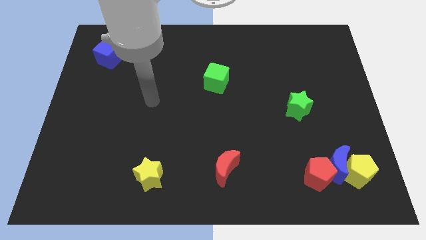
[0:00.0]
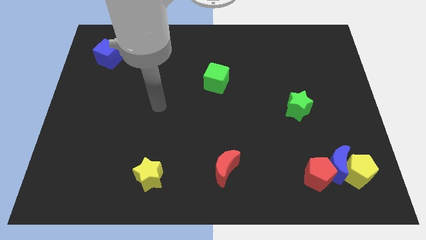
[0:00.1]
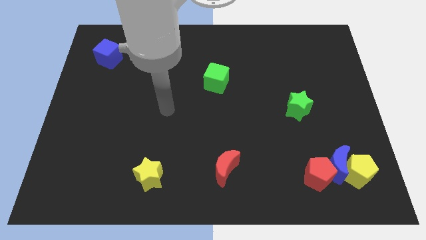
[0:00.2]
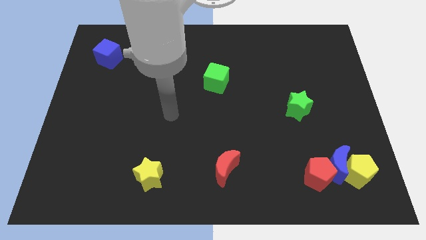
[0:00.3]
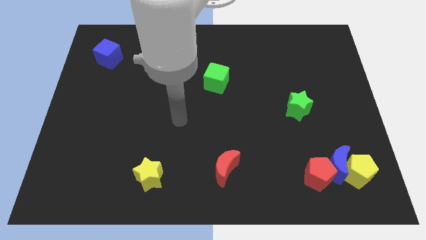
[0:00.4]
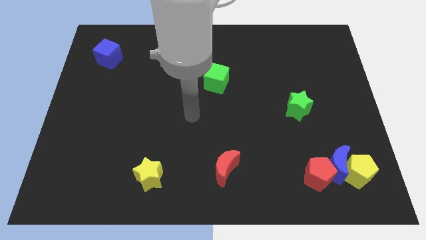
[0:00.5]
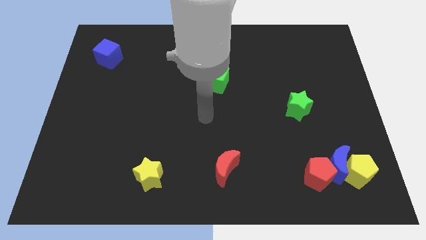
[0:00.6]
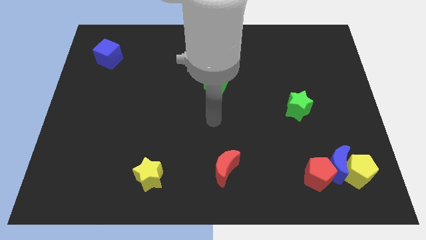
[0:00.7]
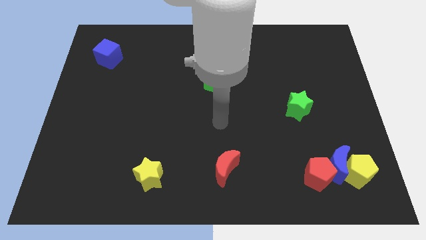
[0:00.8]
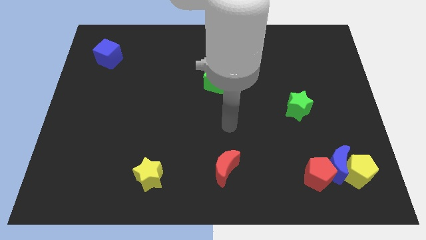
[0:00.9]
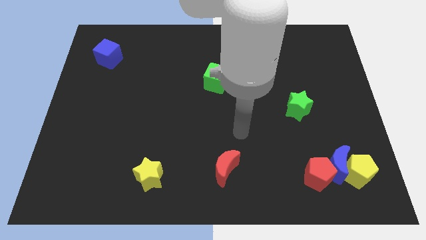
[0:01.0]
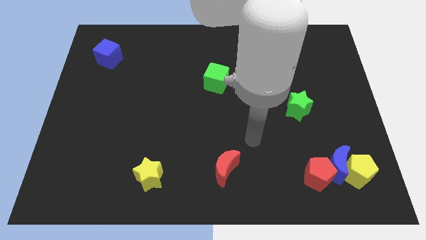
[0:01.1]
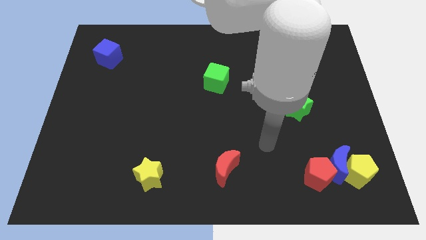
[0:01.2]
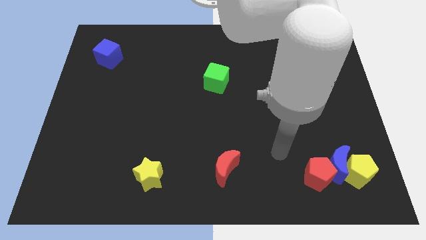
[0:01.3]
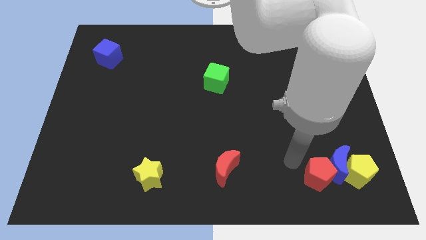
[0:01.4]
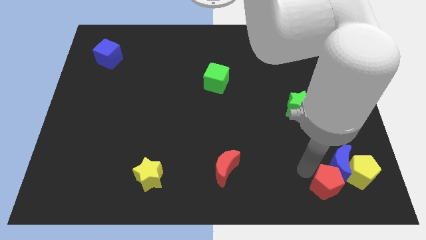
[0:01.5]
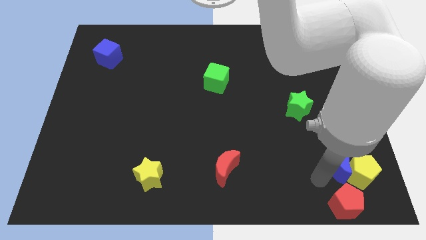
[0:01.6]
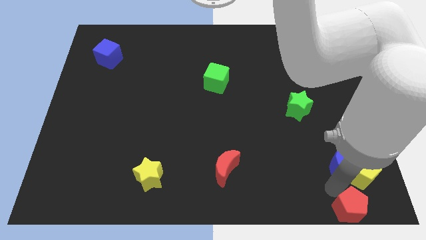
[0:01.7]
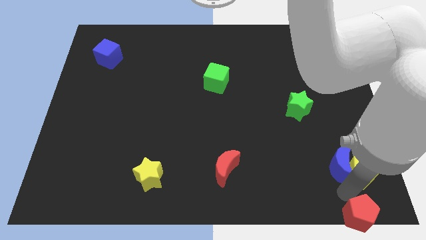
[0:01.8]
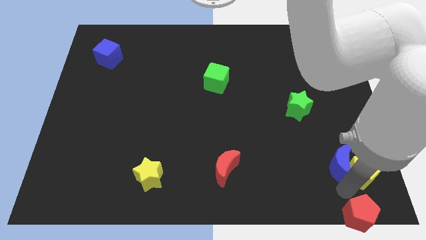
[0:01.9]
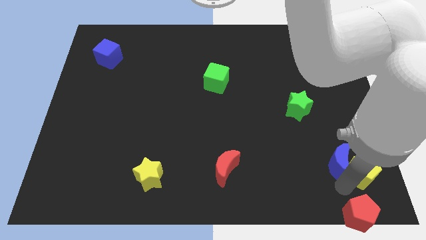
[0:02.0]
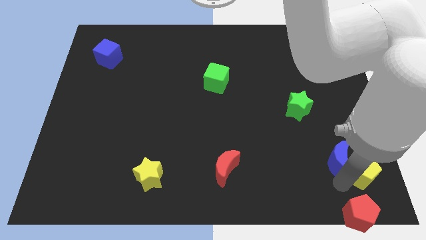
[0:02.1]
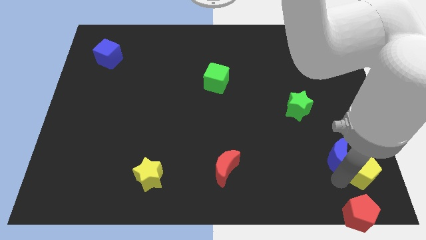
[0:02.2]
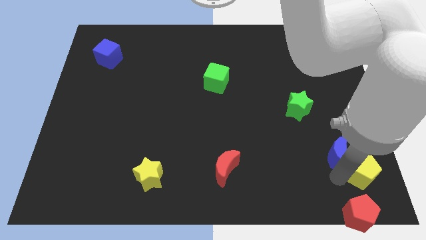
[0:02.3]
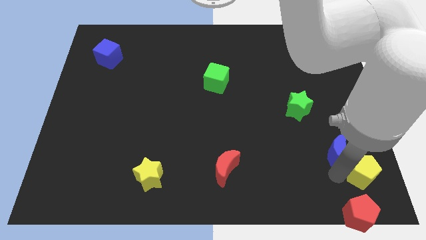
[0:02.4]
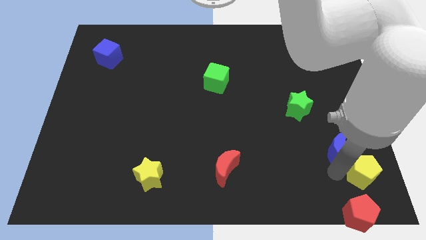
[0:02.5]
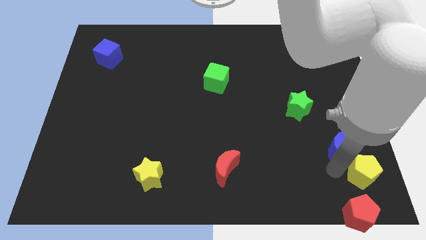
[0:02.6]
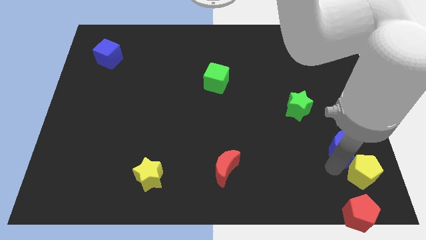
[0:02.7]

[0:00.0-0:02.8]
move the blue moon away from the yellow pentagon and red pentagon

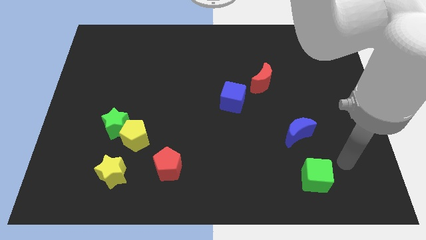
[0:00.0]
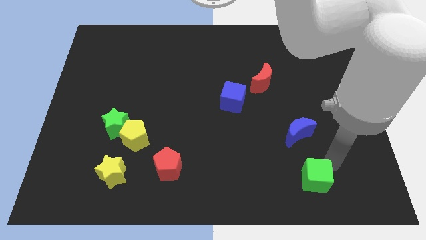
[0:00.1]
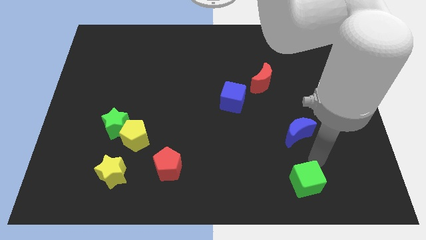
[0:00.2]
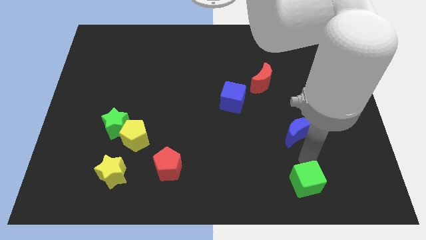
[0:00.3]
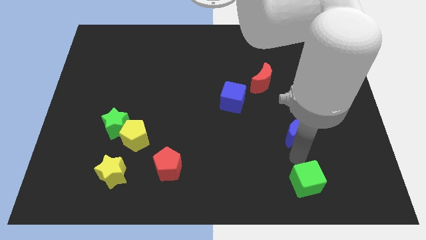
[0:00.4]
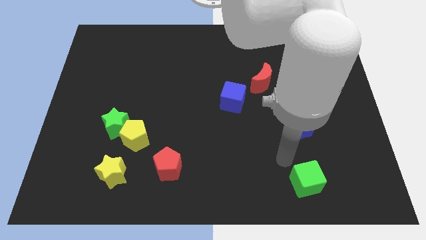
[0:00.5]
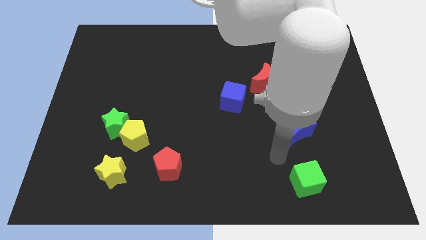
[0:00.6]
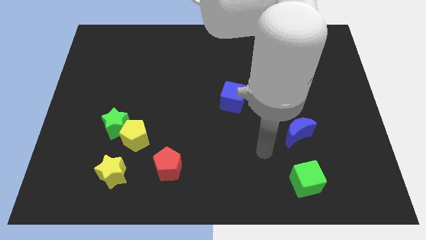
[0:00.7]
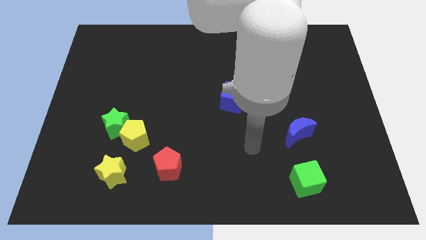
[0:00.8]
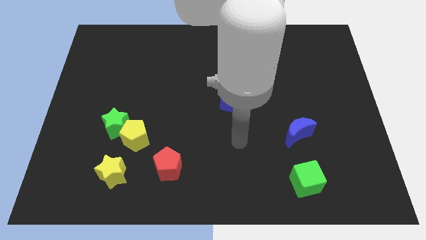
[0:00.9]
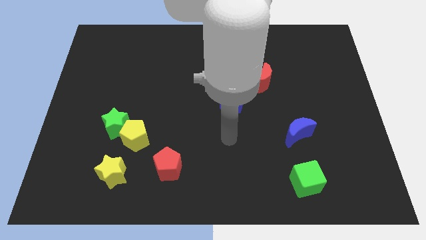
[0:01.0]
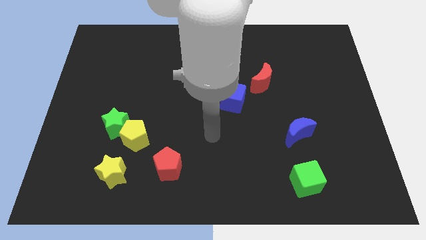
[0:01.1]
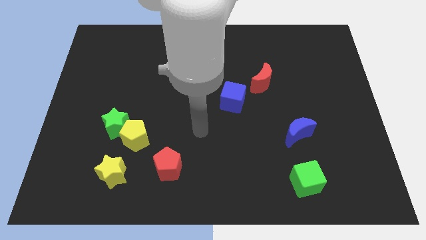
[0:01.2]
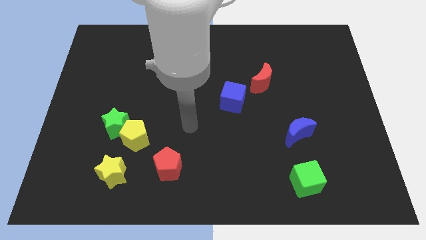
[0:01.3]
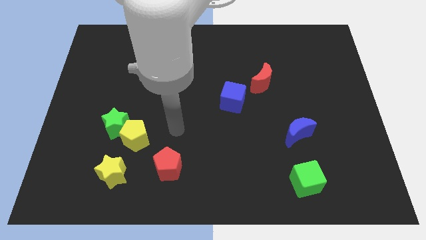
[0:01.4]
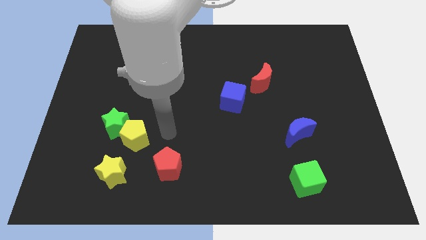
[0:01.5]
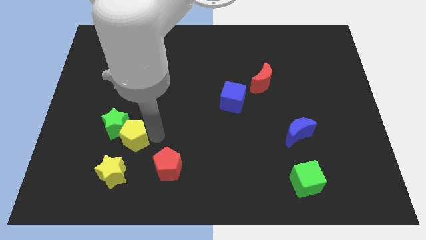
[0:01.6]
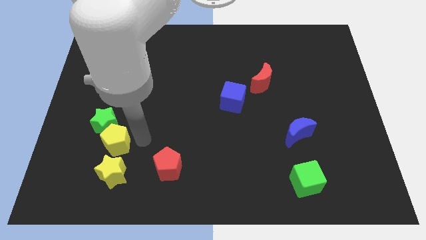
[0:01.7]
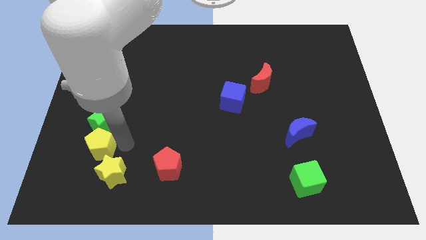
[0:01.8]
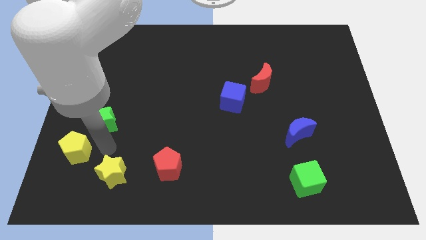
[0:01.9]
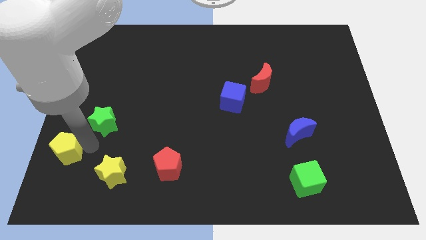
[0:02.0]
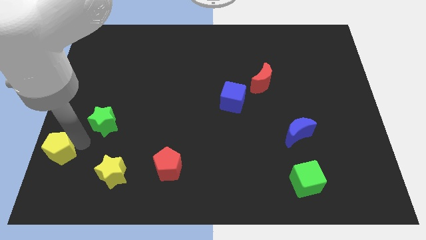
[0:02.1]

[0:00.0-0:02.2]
pull the green star apart from the yellow pentagon

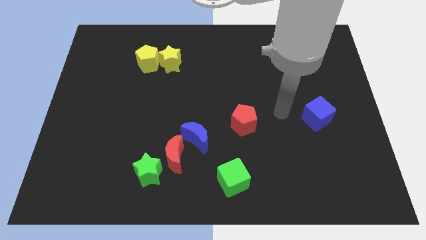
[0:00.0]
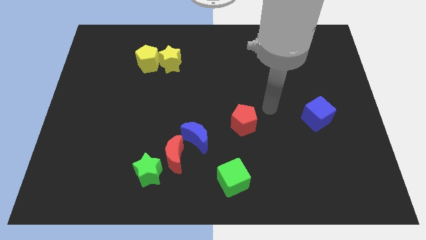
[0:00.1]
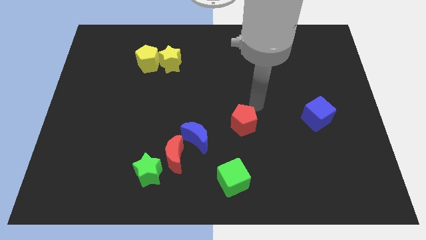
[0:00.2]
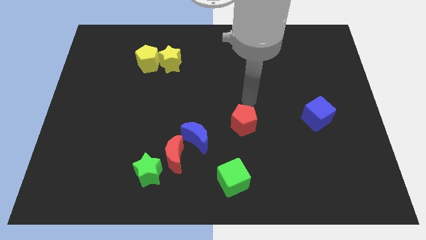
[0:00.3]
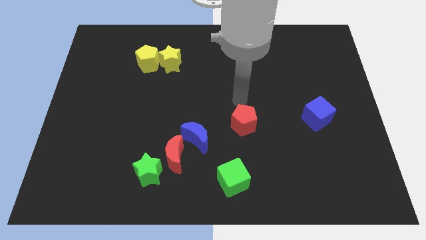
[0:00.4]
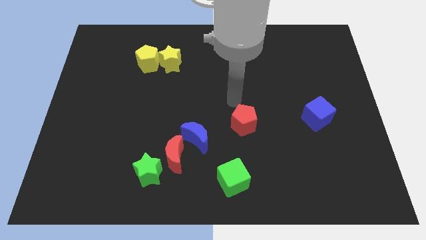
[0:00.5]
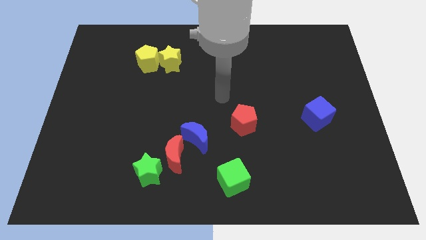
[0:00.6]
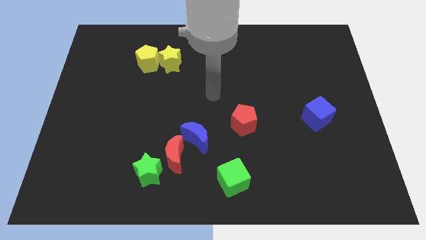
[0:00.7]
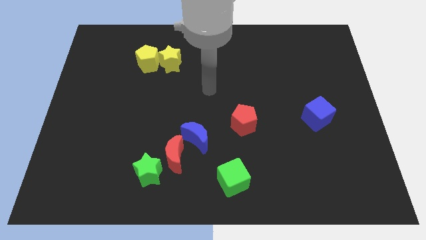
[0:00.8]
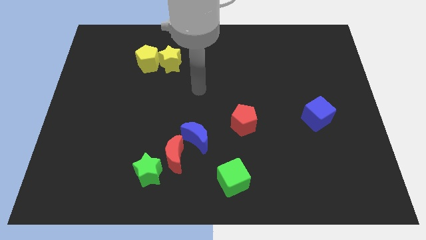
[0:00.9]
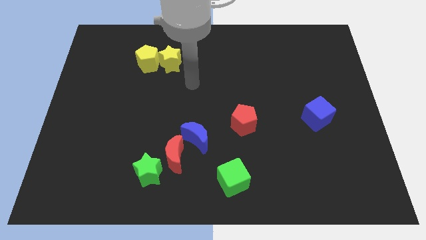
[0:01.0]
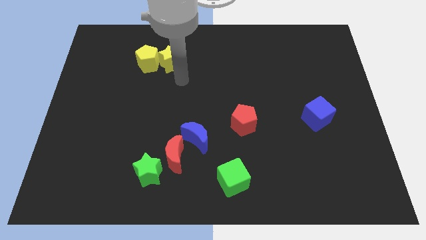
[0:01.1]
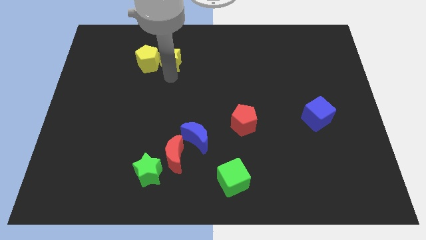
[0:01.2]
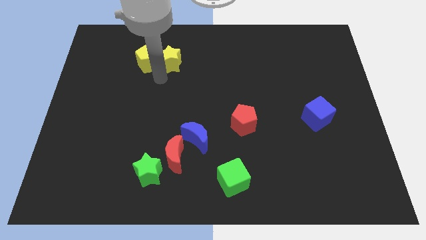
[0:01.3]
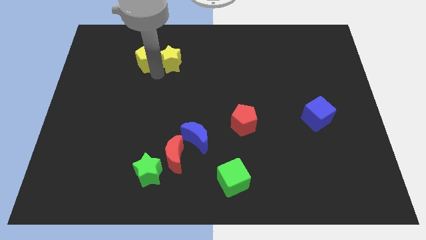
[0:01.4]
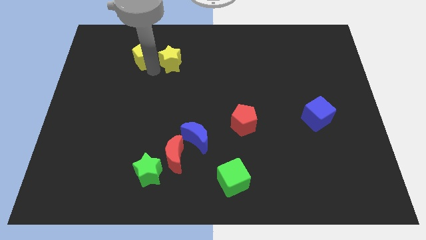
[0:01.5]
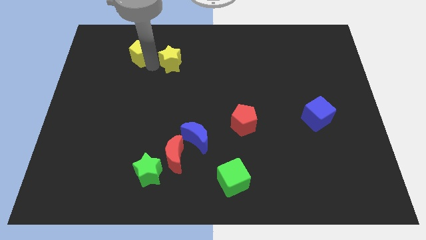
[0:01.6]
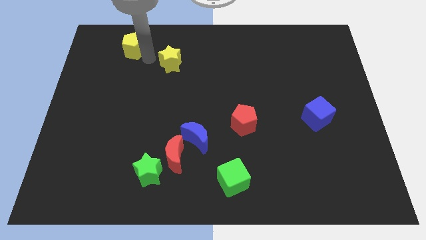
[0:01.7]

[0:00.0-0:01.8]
pull the yellow star apart from the yellow pentagon

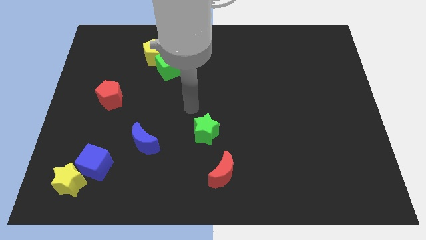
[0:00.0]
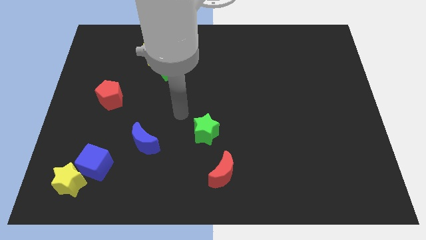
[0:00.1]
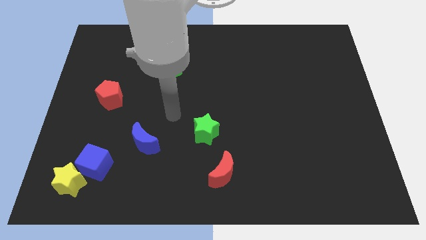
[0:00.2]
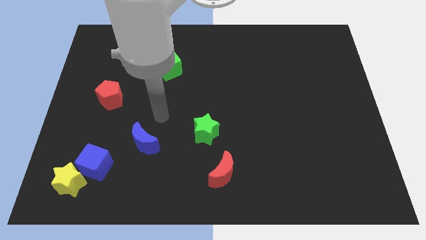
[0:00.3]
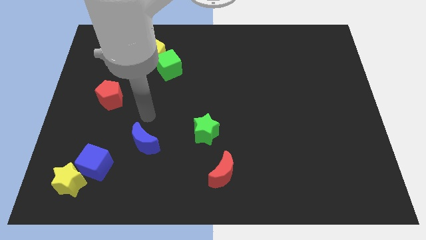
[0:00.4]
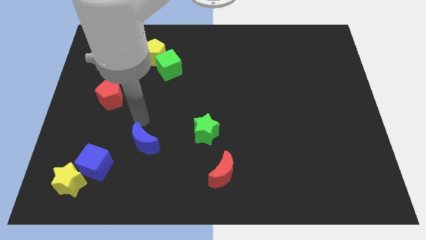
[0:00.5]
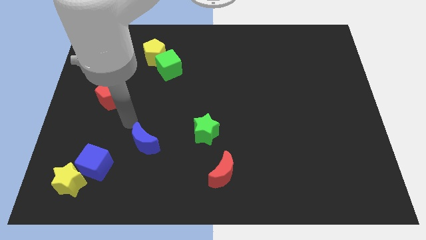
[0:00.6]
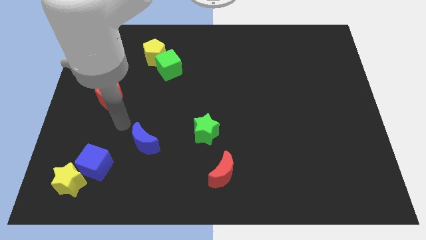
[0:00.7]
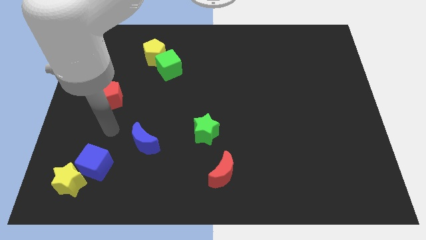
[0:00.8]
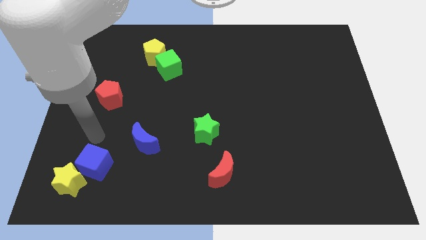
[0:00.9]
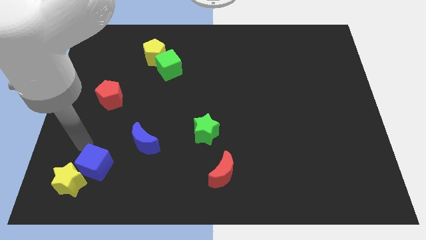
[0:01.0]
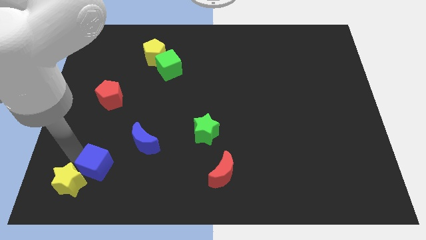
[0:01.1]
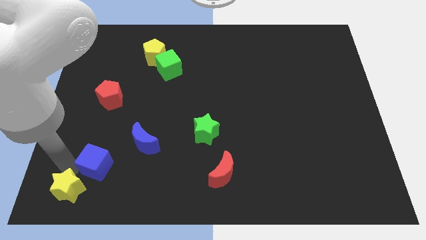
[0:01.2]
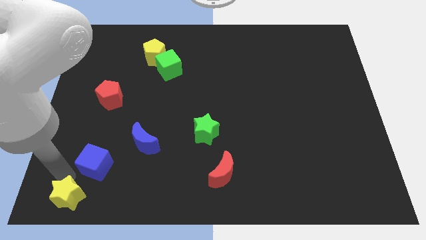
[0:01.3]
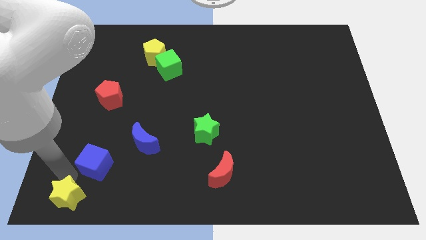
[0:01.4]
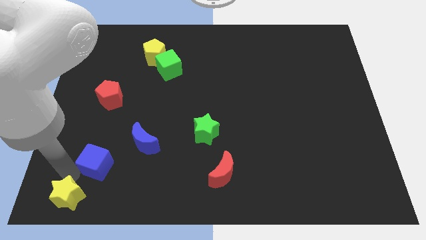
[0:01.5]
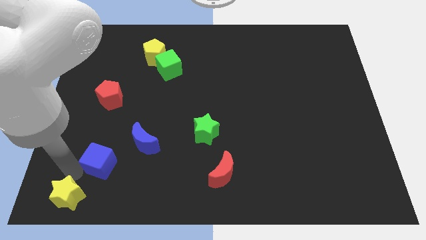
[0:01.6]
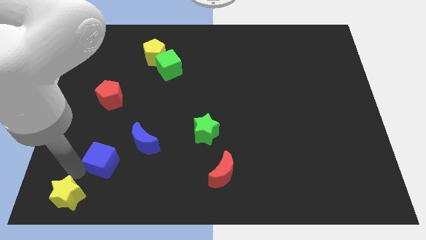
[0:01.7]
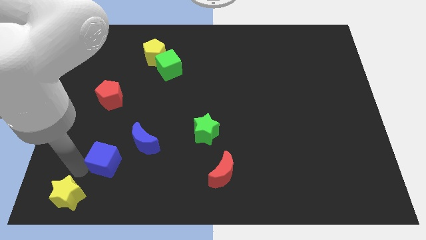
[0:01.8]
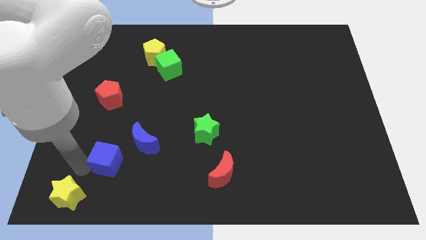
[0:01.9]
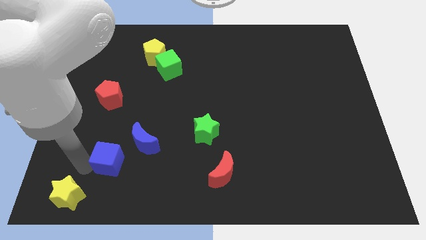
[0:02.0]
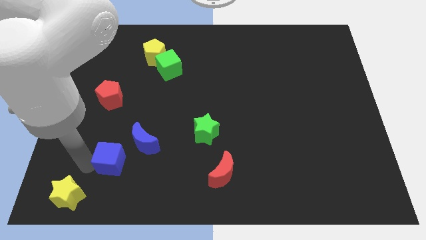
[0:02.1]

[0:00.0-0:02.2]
separate the blue cube from the yellow star

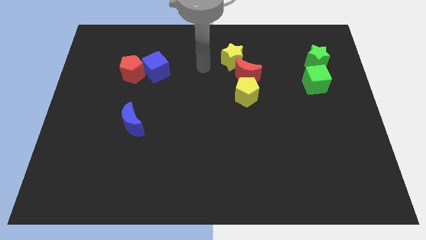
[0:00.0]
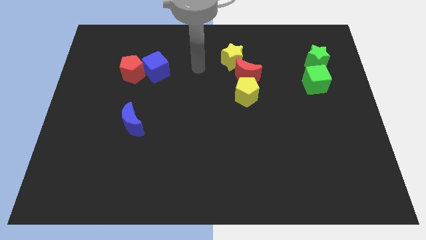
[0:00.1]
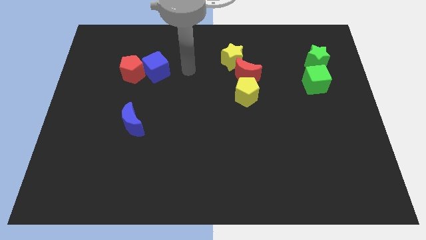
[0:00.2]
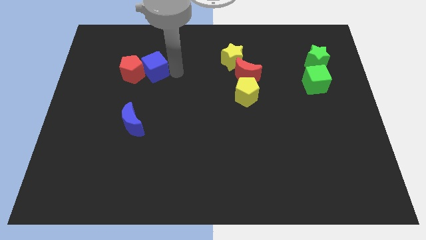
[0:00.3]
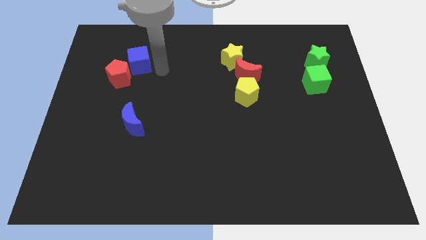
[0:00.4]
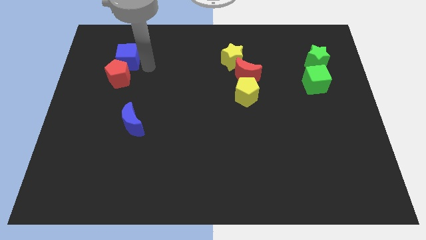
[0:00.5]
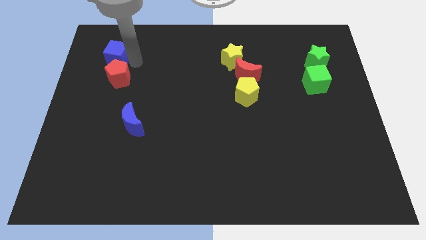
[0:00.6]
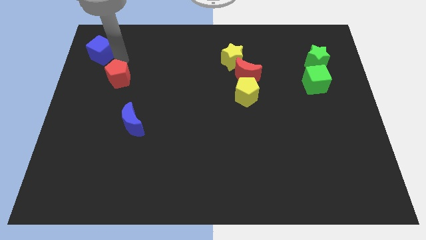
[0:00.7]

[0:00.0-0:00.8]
pull the red pentagon apart from the blue cube
